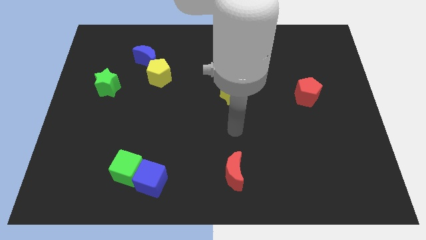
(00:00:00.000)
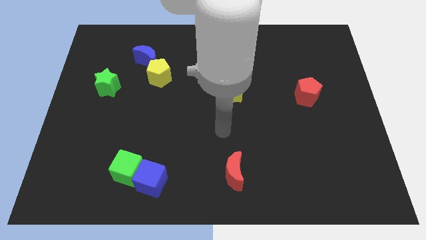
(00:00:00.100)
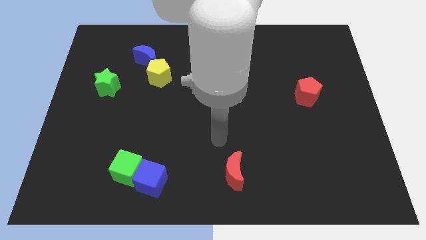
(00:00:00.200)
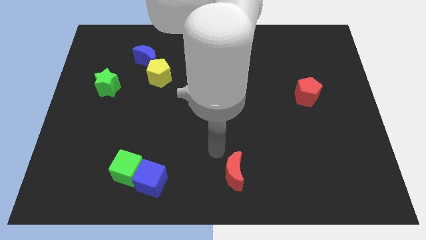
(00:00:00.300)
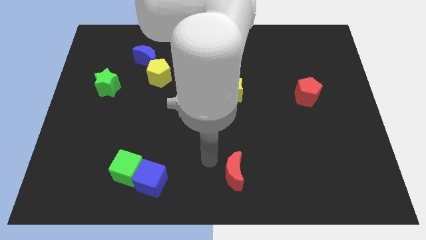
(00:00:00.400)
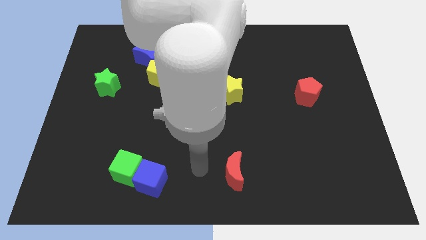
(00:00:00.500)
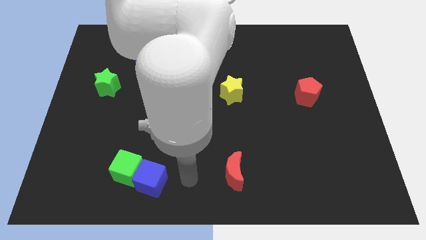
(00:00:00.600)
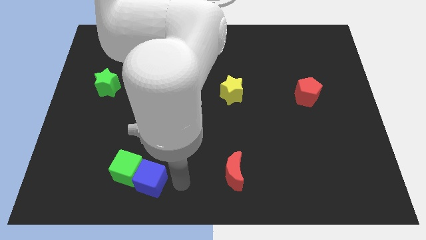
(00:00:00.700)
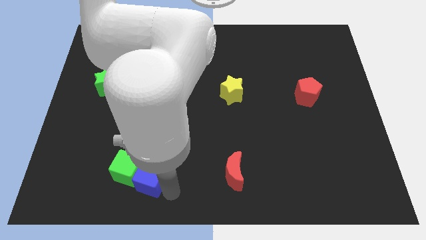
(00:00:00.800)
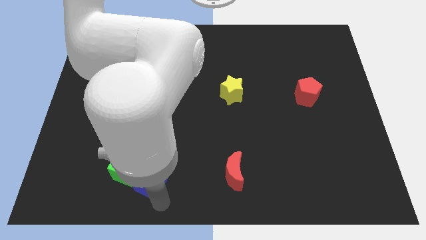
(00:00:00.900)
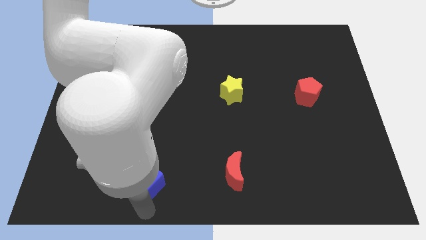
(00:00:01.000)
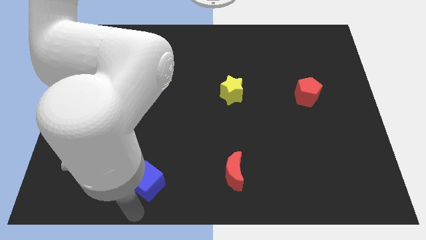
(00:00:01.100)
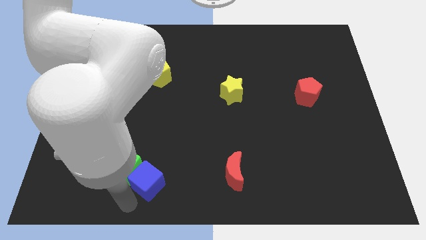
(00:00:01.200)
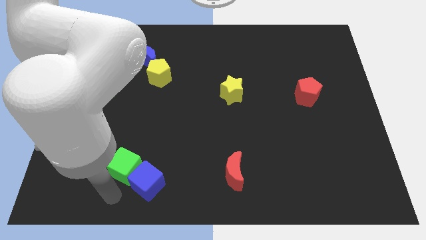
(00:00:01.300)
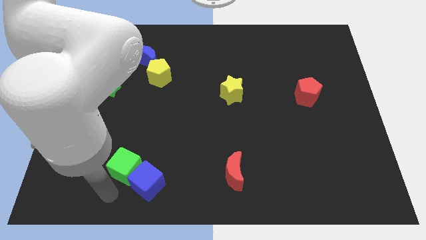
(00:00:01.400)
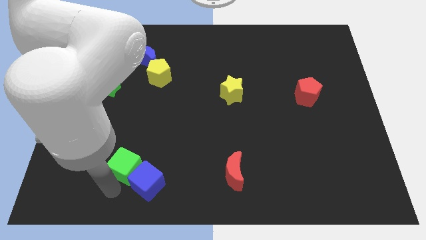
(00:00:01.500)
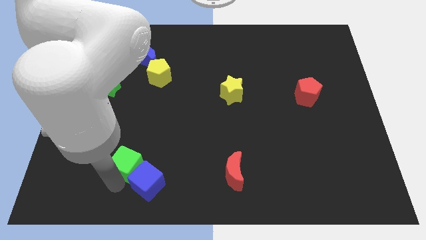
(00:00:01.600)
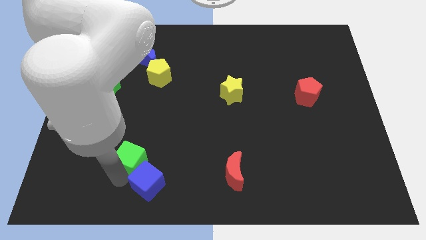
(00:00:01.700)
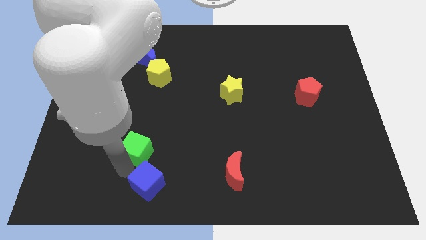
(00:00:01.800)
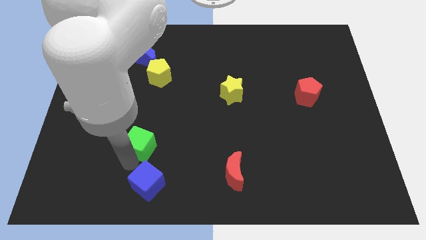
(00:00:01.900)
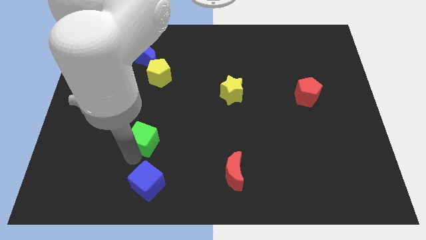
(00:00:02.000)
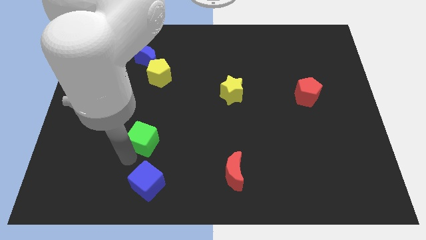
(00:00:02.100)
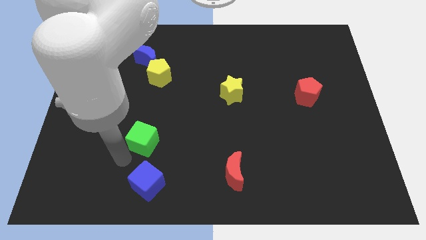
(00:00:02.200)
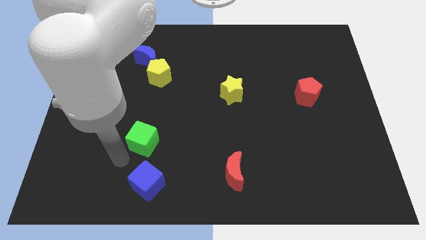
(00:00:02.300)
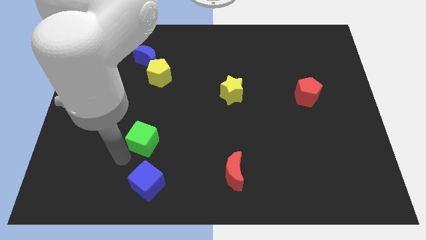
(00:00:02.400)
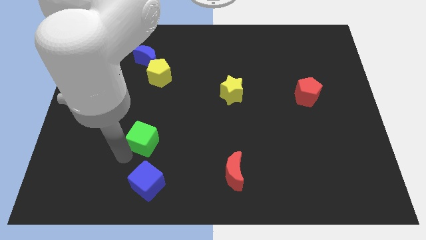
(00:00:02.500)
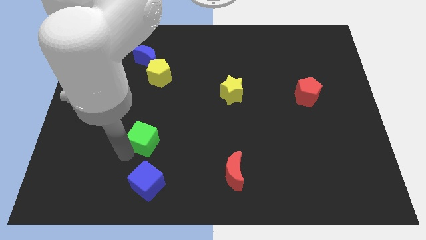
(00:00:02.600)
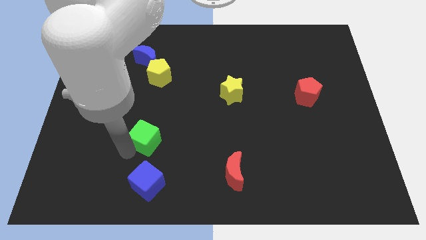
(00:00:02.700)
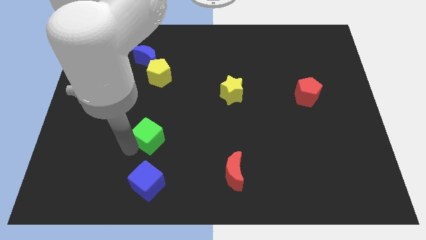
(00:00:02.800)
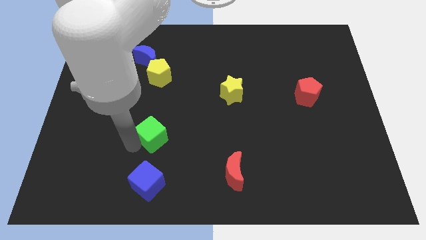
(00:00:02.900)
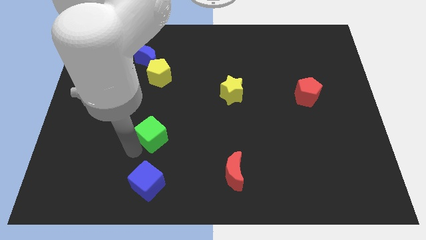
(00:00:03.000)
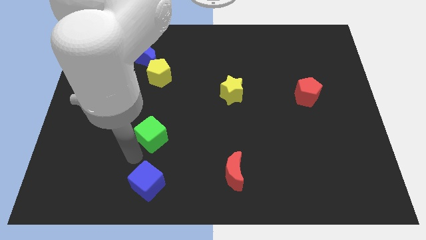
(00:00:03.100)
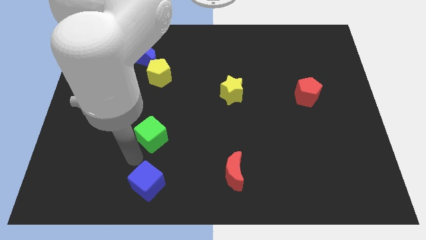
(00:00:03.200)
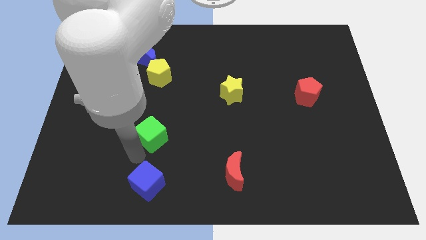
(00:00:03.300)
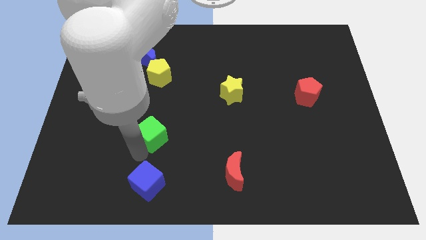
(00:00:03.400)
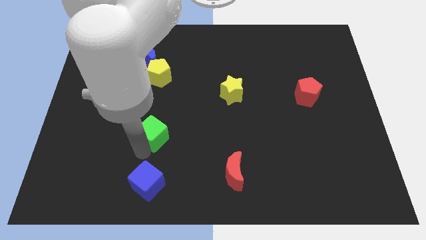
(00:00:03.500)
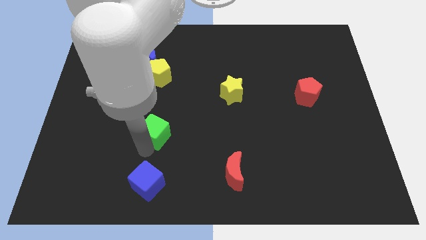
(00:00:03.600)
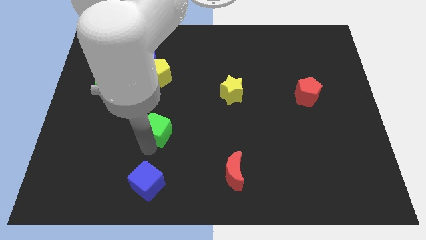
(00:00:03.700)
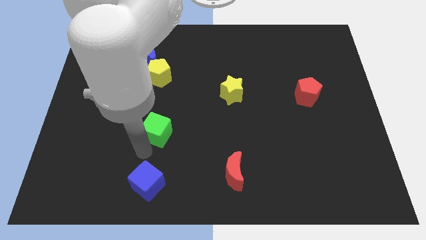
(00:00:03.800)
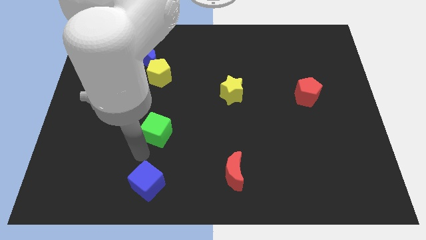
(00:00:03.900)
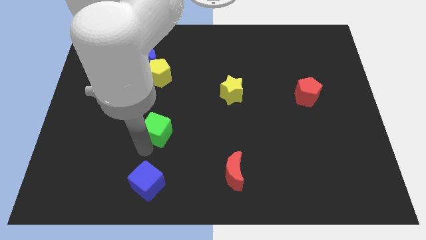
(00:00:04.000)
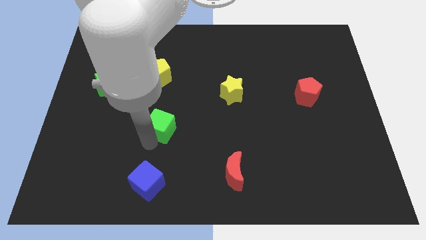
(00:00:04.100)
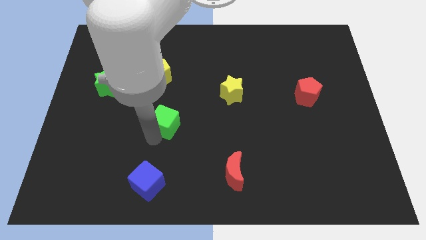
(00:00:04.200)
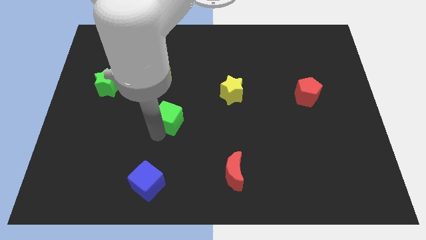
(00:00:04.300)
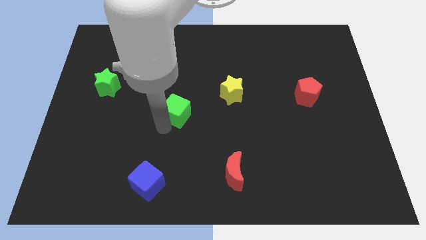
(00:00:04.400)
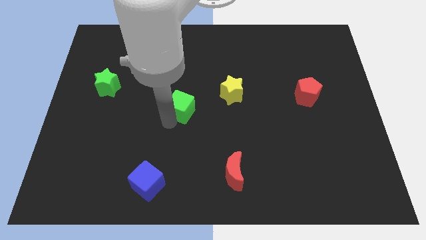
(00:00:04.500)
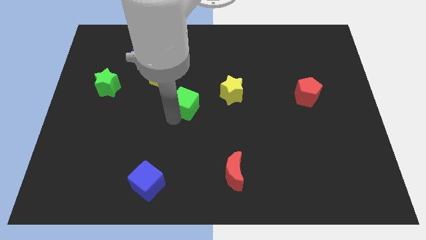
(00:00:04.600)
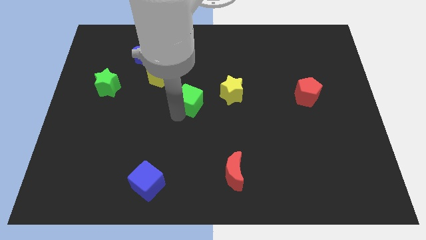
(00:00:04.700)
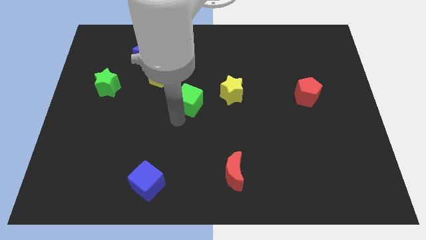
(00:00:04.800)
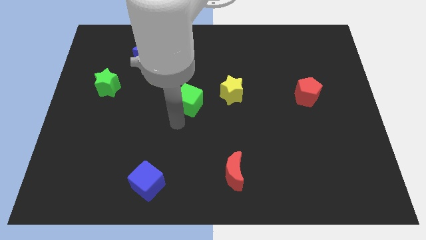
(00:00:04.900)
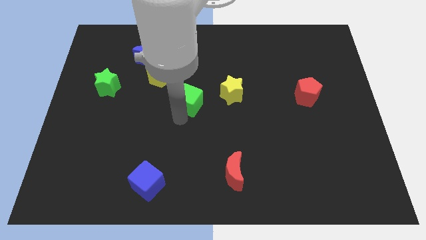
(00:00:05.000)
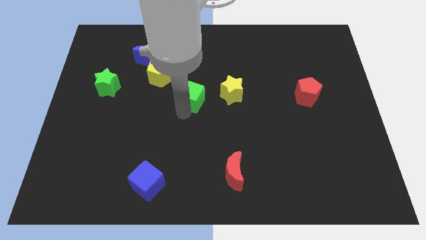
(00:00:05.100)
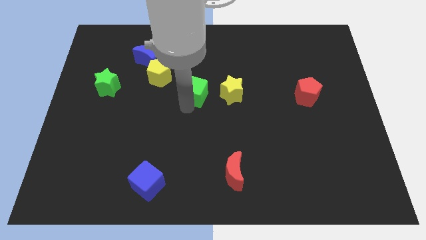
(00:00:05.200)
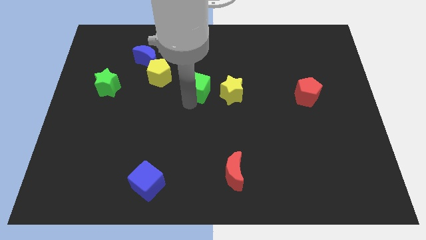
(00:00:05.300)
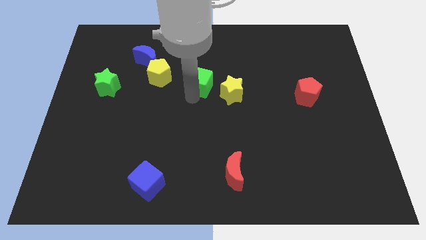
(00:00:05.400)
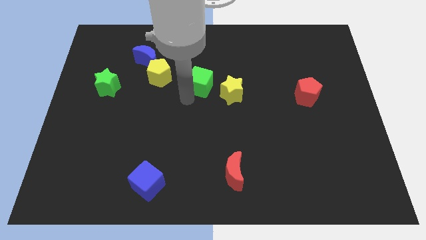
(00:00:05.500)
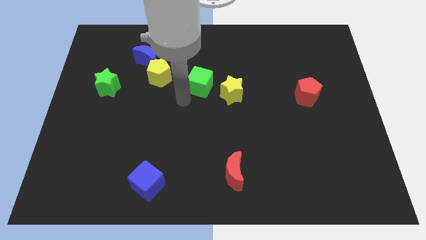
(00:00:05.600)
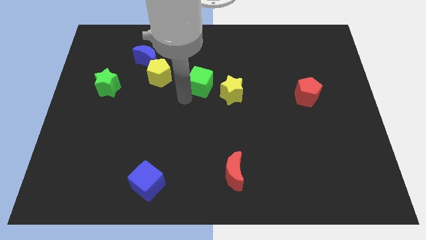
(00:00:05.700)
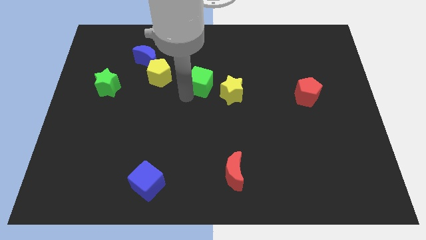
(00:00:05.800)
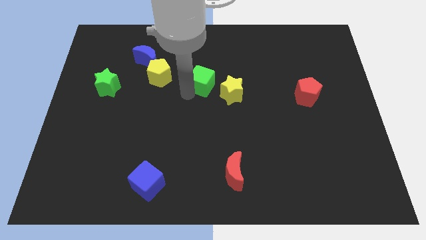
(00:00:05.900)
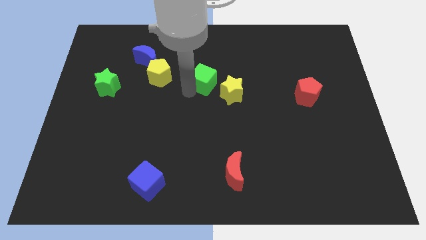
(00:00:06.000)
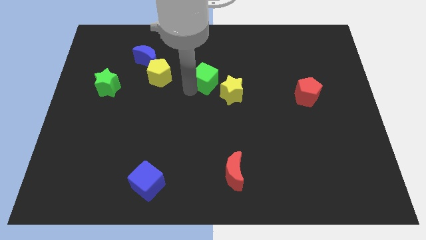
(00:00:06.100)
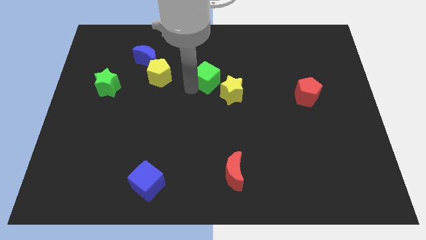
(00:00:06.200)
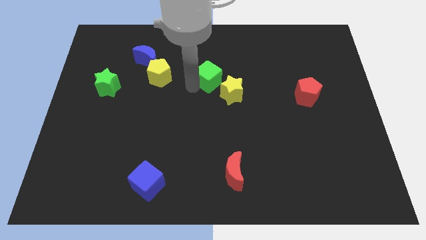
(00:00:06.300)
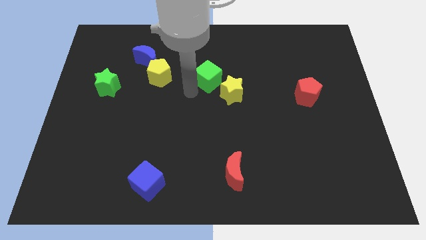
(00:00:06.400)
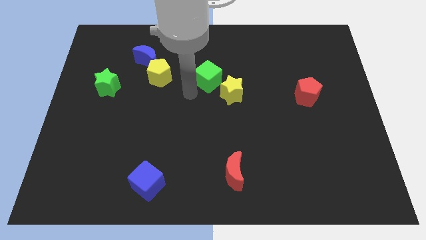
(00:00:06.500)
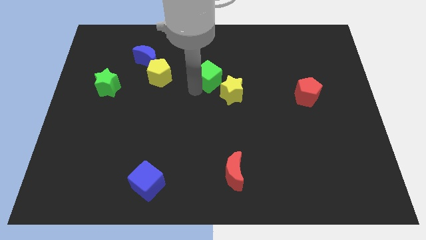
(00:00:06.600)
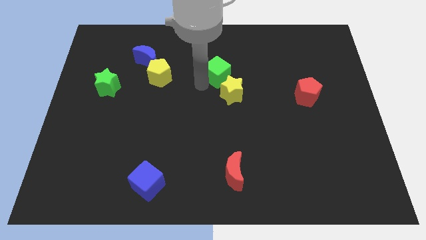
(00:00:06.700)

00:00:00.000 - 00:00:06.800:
put the green cube above the yellow star

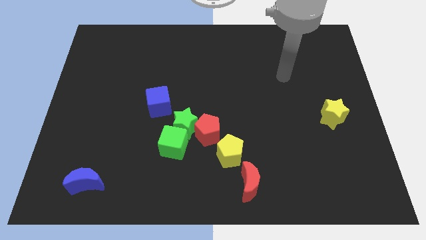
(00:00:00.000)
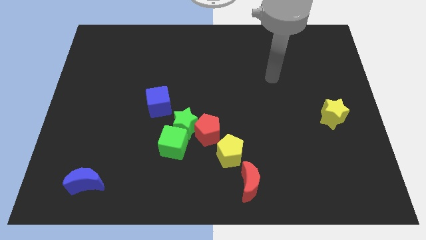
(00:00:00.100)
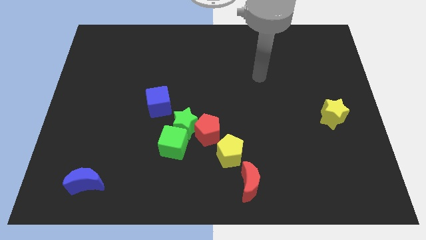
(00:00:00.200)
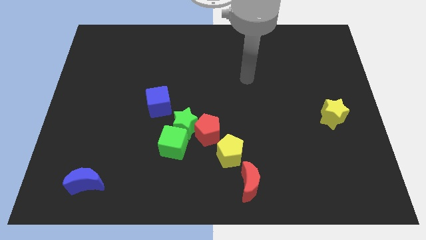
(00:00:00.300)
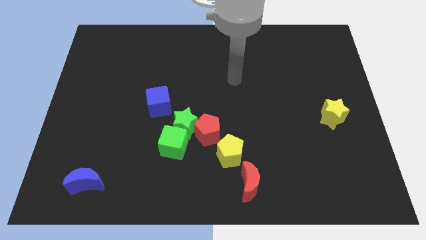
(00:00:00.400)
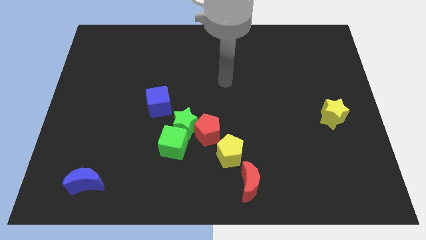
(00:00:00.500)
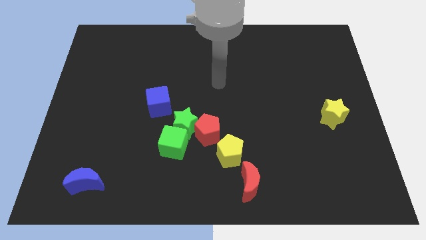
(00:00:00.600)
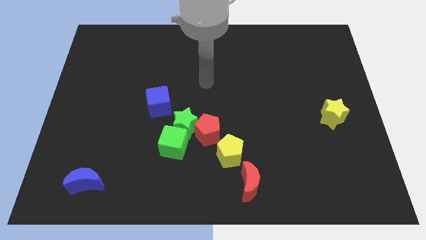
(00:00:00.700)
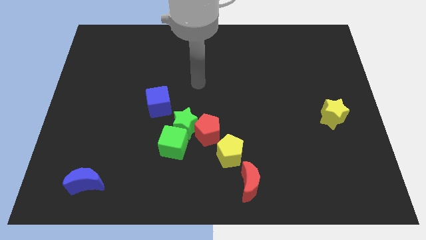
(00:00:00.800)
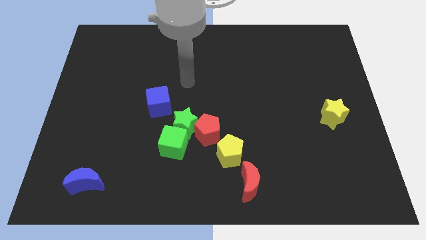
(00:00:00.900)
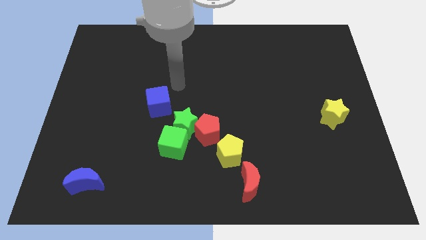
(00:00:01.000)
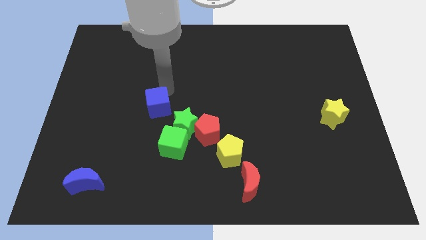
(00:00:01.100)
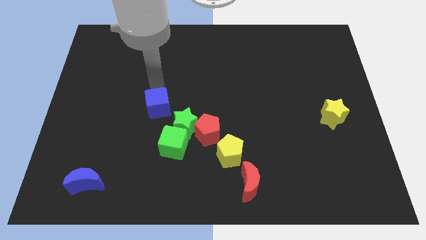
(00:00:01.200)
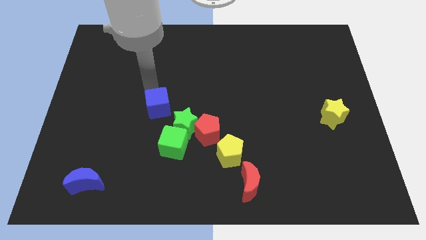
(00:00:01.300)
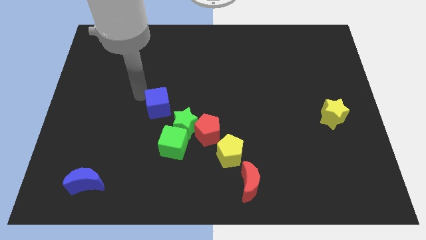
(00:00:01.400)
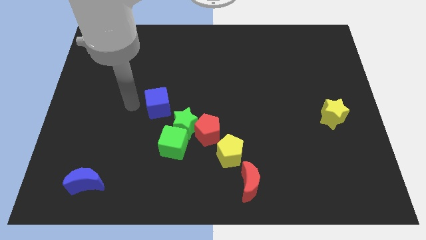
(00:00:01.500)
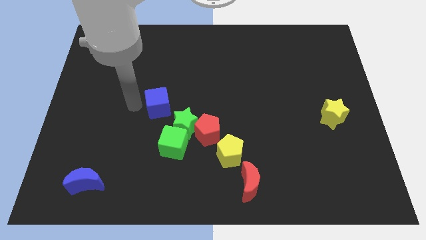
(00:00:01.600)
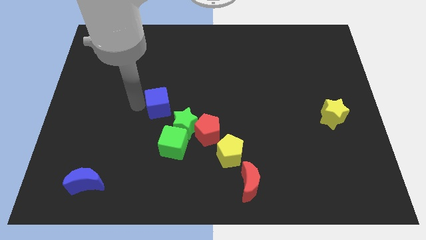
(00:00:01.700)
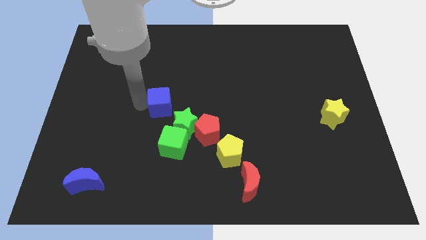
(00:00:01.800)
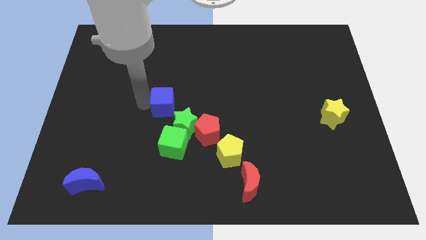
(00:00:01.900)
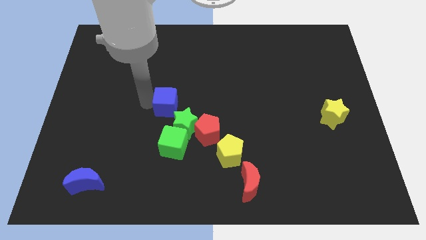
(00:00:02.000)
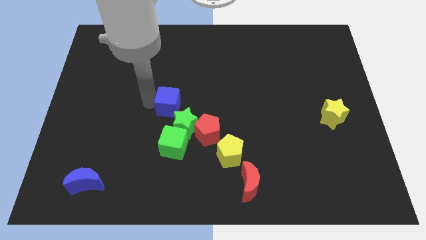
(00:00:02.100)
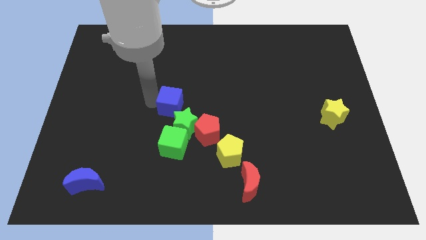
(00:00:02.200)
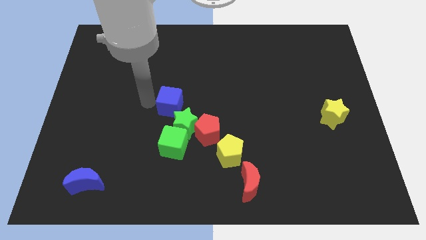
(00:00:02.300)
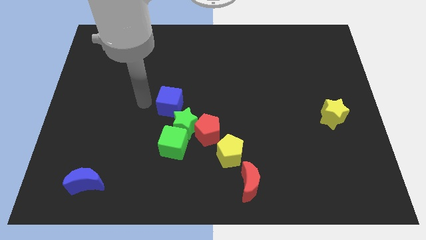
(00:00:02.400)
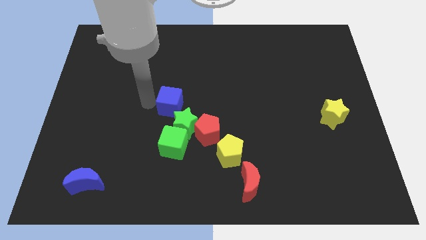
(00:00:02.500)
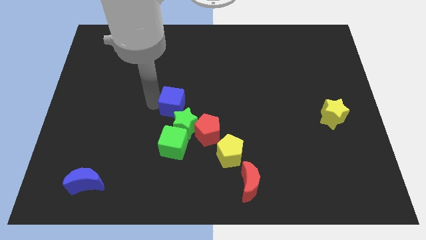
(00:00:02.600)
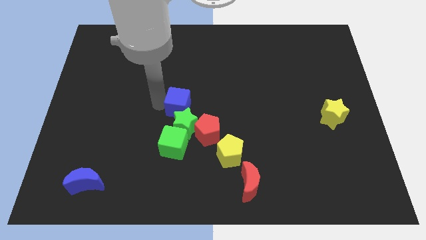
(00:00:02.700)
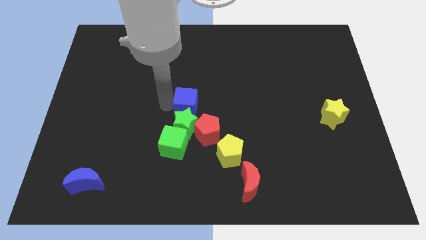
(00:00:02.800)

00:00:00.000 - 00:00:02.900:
put the blue cube to the top right side of the green star
